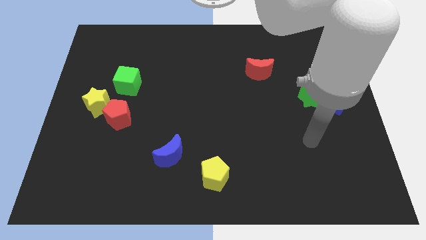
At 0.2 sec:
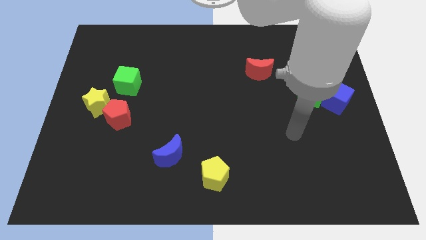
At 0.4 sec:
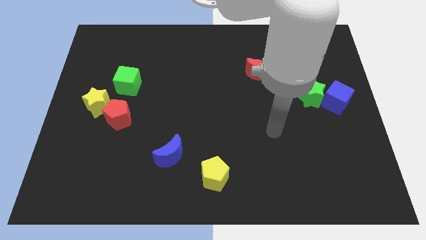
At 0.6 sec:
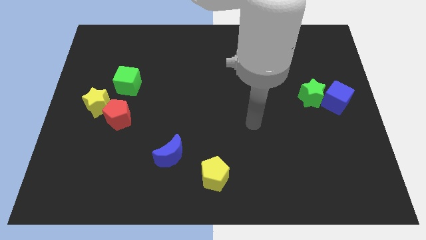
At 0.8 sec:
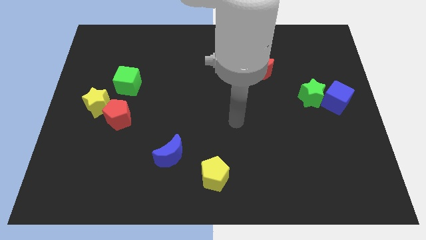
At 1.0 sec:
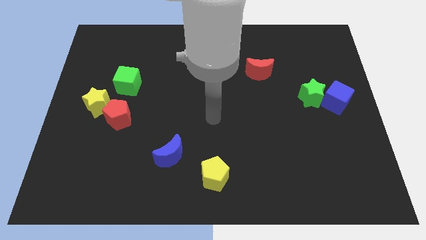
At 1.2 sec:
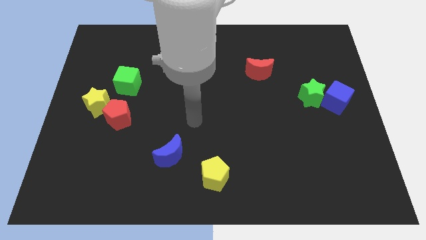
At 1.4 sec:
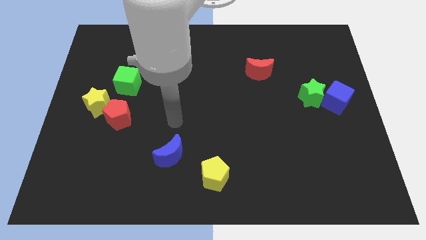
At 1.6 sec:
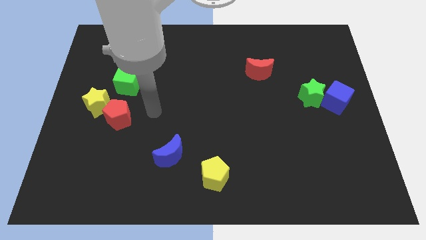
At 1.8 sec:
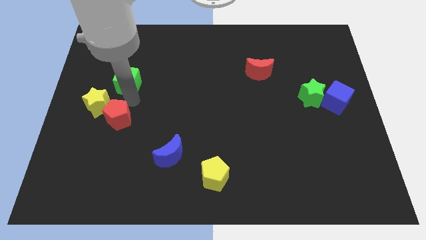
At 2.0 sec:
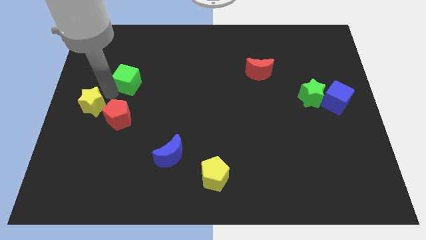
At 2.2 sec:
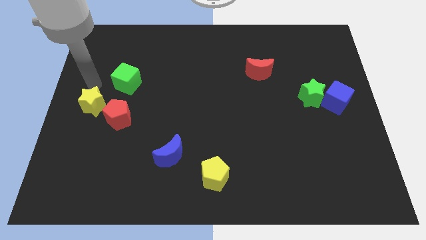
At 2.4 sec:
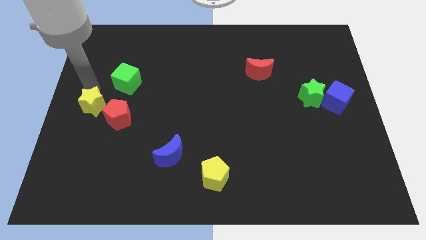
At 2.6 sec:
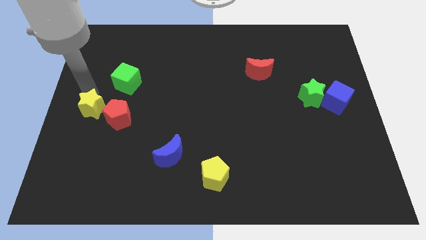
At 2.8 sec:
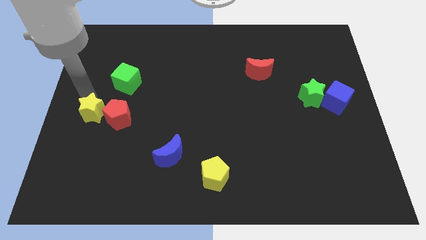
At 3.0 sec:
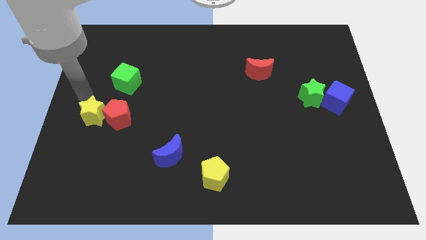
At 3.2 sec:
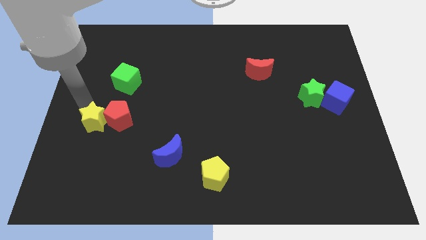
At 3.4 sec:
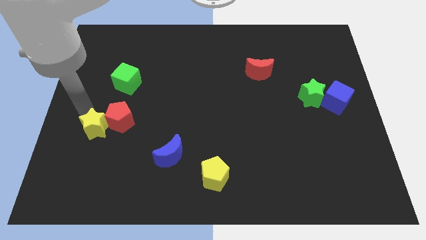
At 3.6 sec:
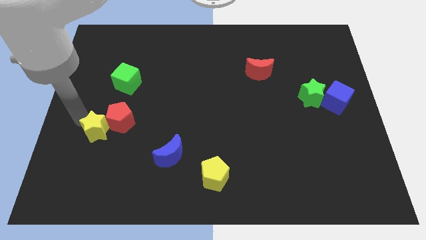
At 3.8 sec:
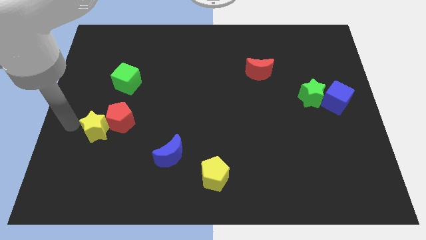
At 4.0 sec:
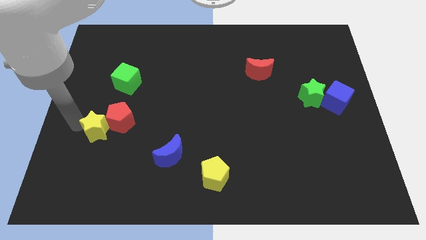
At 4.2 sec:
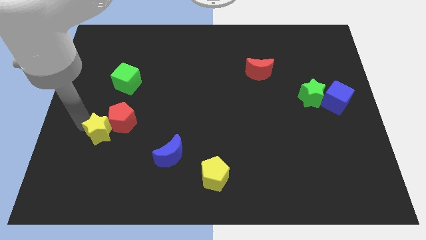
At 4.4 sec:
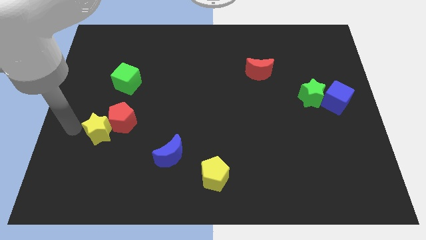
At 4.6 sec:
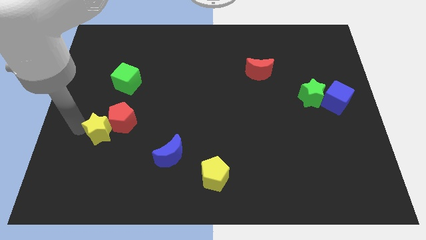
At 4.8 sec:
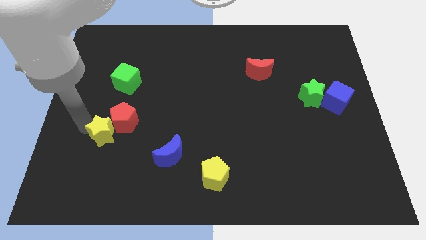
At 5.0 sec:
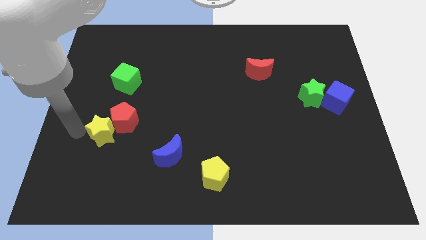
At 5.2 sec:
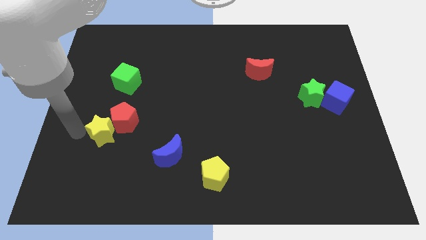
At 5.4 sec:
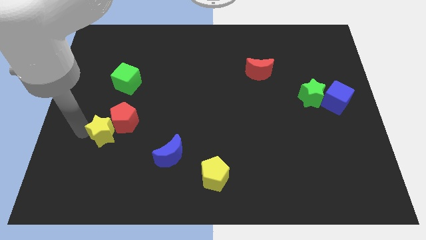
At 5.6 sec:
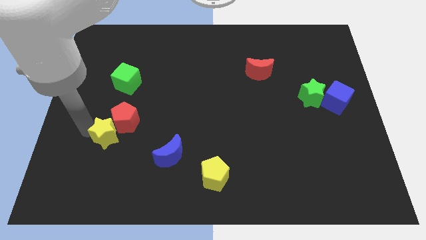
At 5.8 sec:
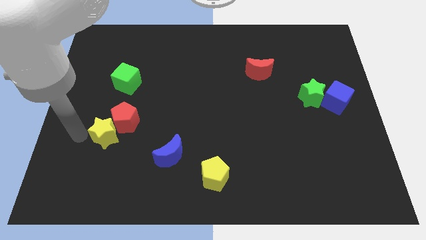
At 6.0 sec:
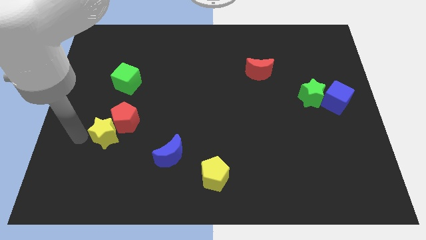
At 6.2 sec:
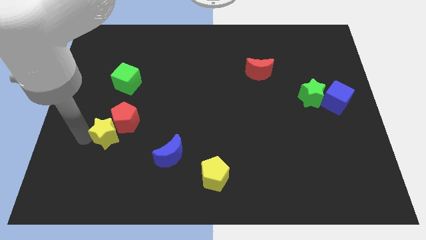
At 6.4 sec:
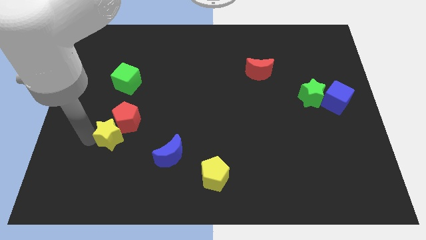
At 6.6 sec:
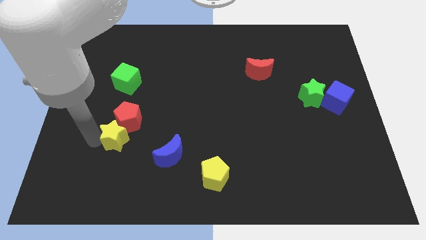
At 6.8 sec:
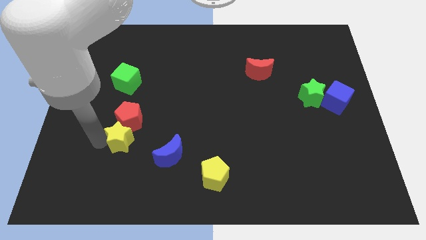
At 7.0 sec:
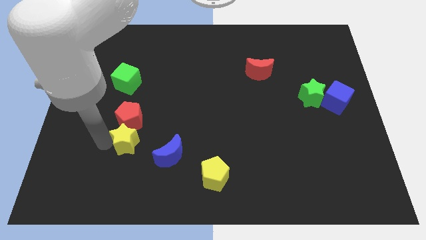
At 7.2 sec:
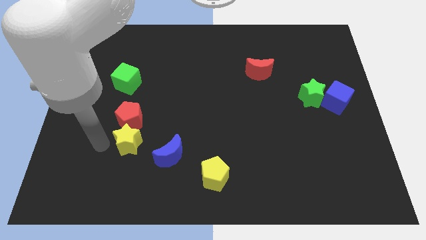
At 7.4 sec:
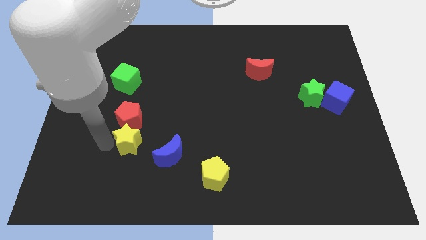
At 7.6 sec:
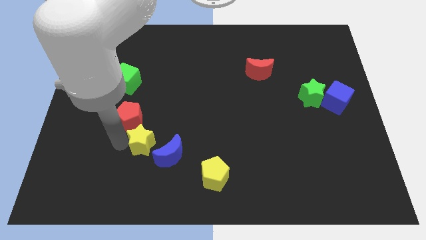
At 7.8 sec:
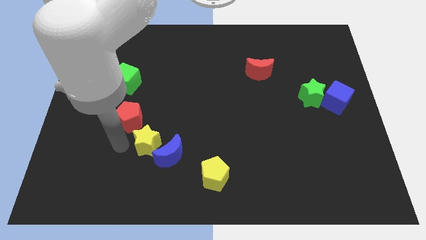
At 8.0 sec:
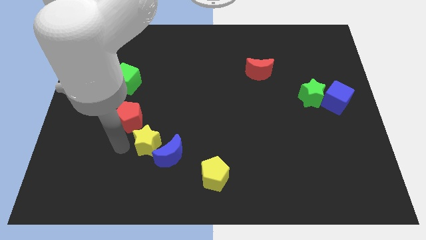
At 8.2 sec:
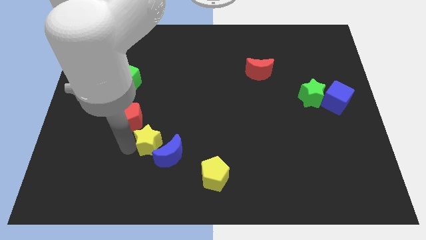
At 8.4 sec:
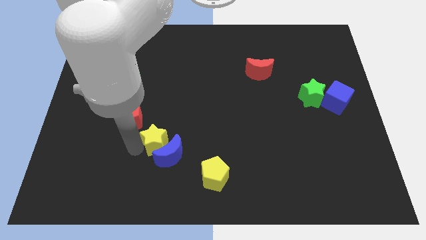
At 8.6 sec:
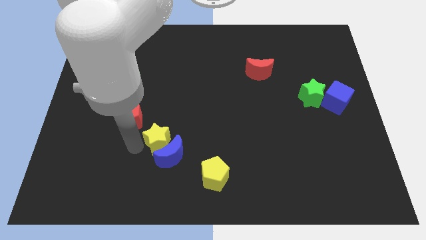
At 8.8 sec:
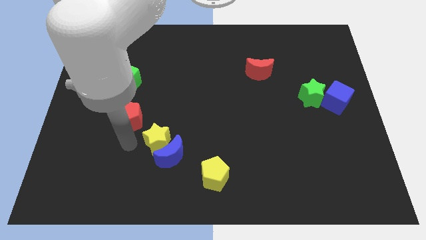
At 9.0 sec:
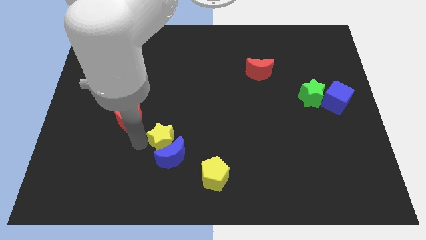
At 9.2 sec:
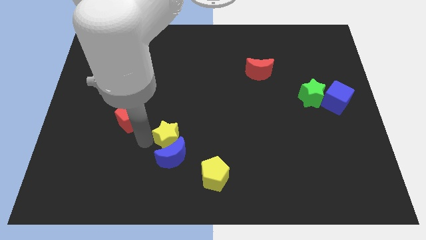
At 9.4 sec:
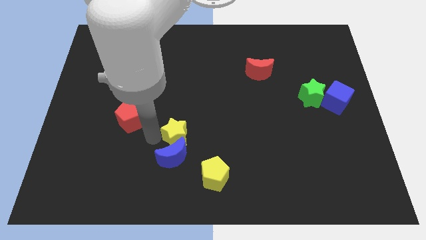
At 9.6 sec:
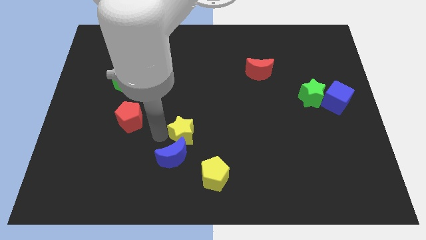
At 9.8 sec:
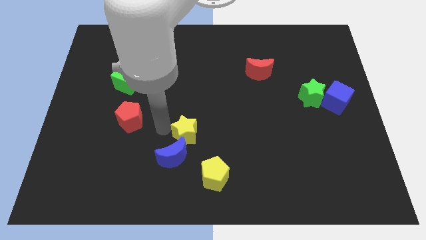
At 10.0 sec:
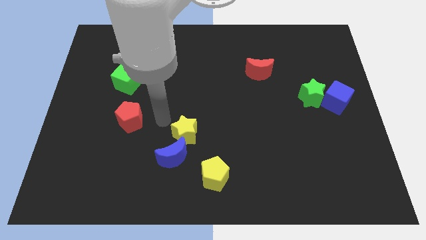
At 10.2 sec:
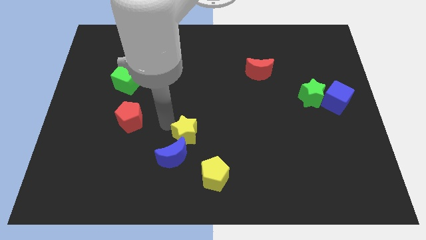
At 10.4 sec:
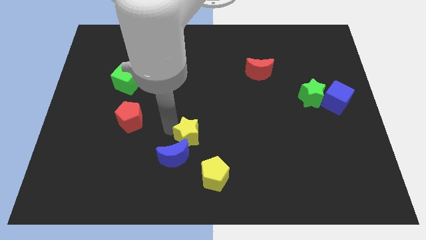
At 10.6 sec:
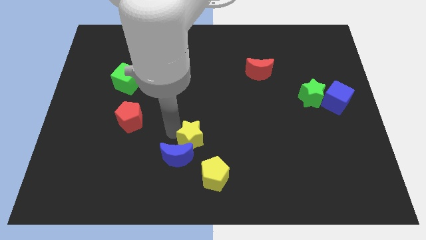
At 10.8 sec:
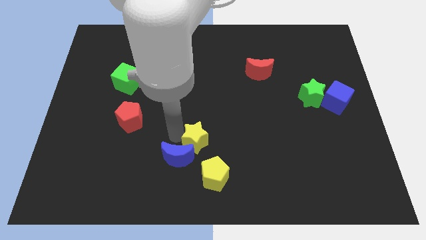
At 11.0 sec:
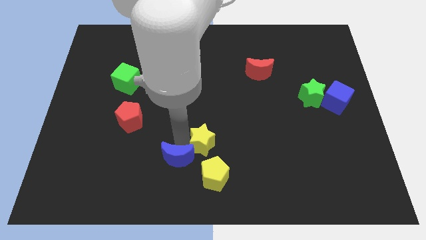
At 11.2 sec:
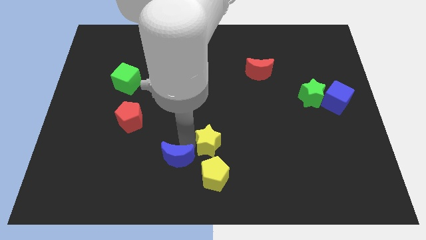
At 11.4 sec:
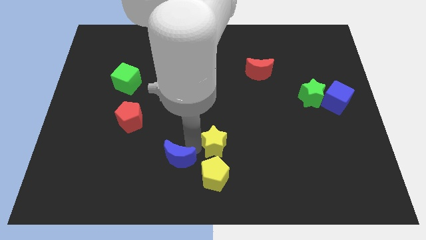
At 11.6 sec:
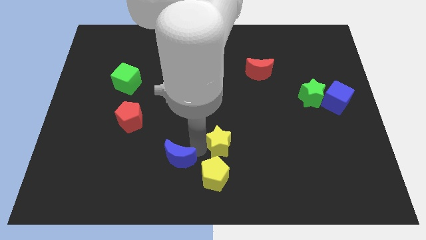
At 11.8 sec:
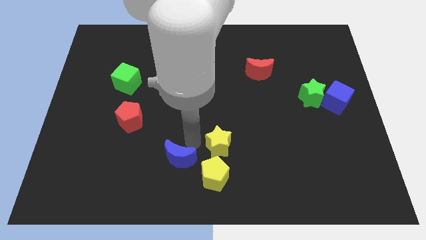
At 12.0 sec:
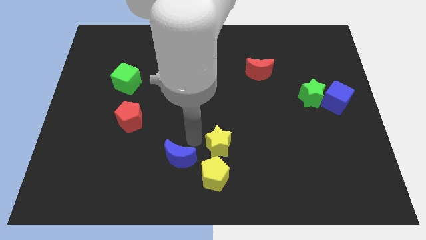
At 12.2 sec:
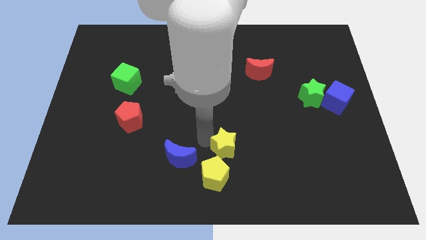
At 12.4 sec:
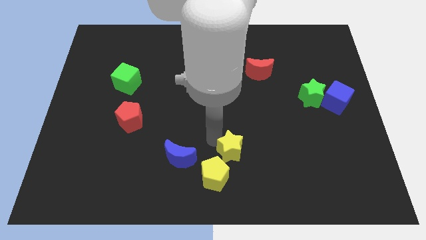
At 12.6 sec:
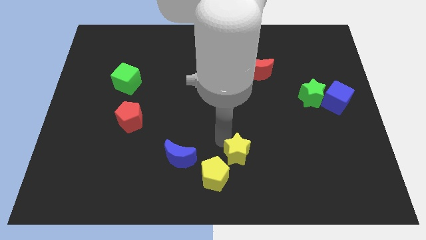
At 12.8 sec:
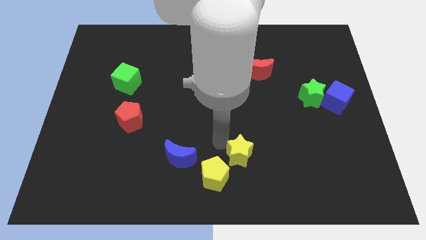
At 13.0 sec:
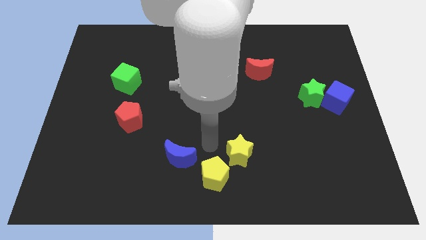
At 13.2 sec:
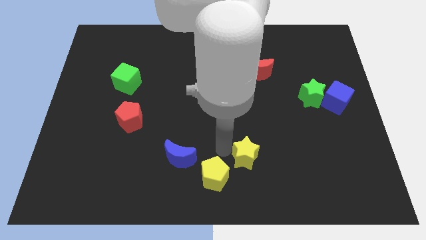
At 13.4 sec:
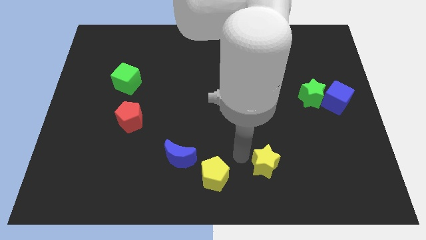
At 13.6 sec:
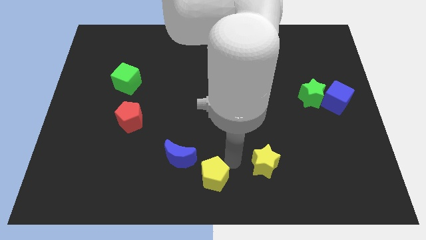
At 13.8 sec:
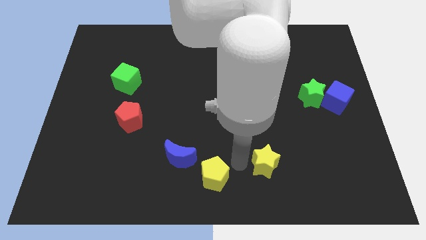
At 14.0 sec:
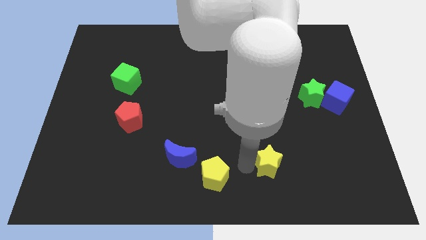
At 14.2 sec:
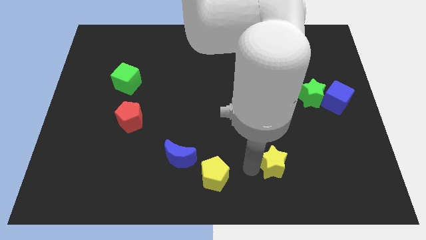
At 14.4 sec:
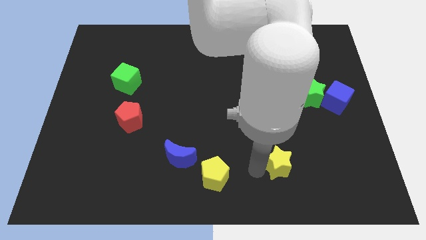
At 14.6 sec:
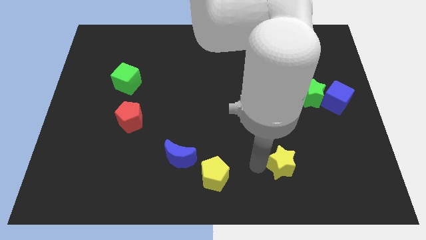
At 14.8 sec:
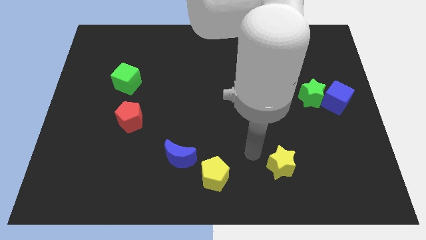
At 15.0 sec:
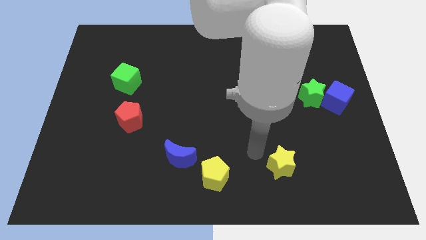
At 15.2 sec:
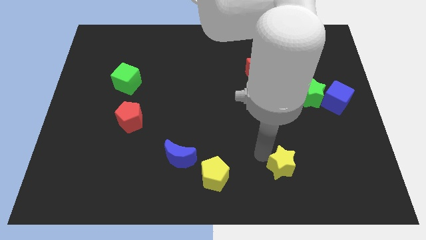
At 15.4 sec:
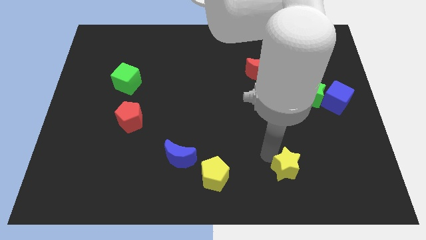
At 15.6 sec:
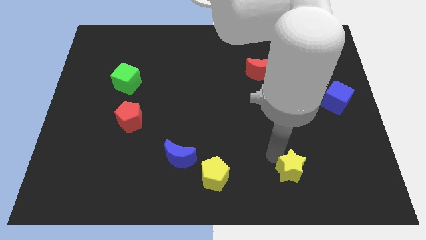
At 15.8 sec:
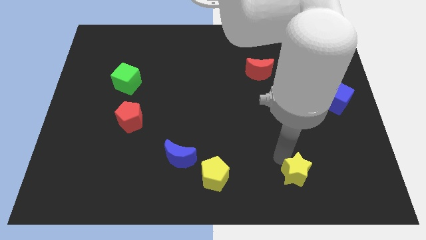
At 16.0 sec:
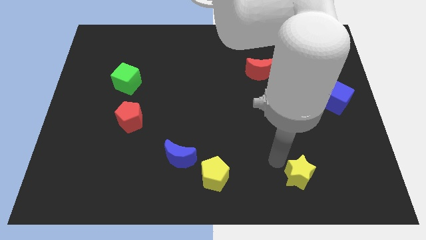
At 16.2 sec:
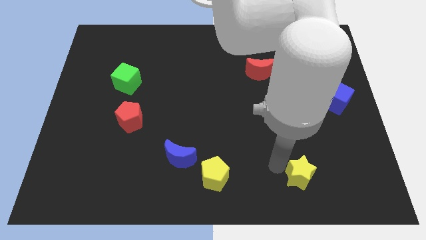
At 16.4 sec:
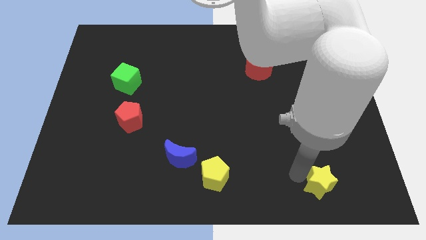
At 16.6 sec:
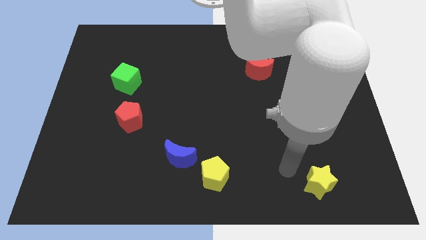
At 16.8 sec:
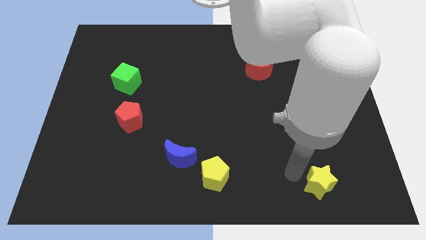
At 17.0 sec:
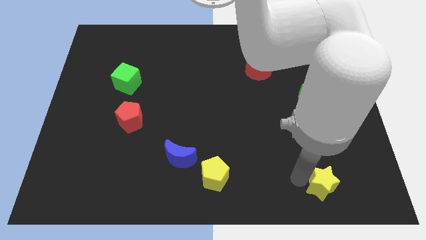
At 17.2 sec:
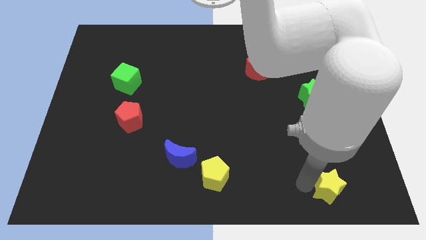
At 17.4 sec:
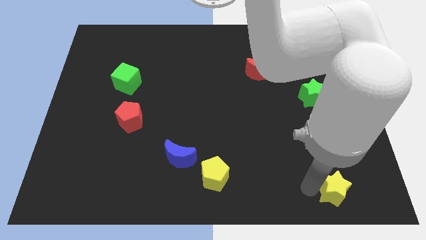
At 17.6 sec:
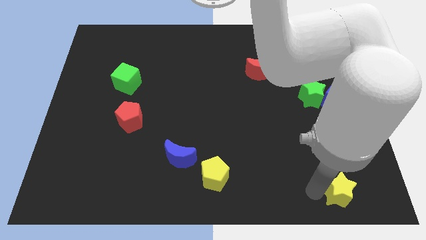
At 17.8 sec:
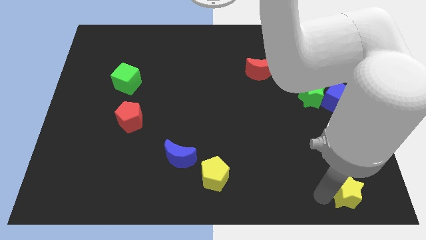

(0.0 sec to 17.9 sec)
slide the yellow star to the bottom right corner
